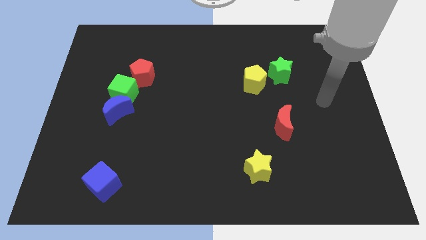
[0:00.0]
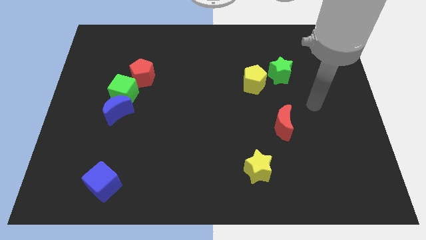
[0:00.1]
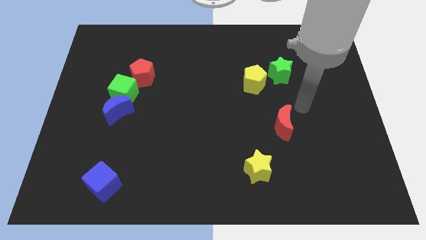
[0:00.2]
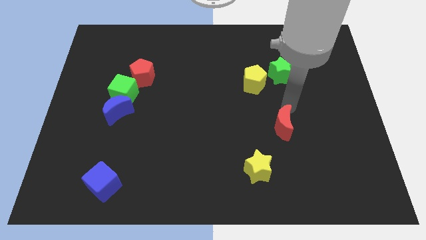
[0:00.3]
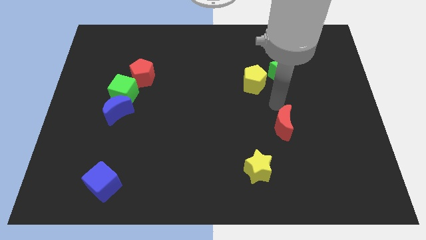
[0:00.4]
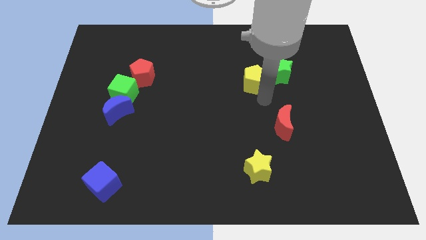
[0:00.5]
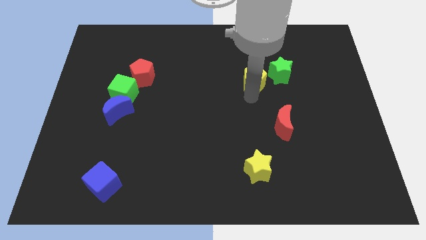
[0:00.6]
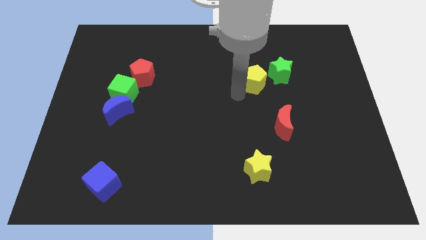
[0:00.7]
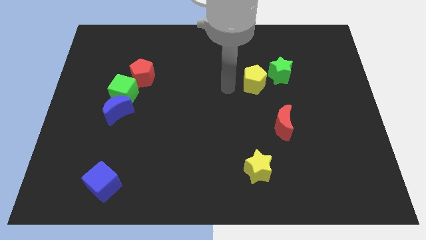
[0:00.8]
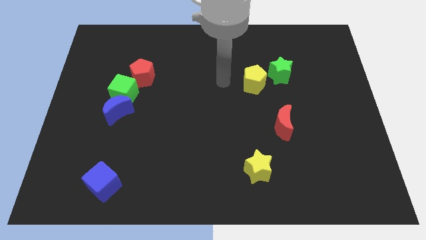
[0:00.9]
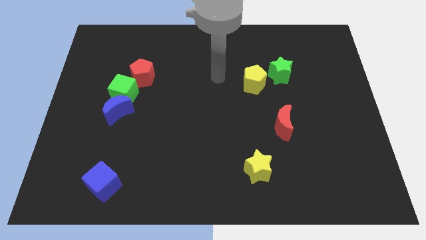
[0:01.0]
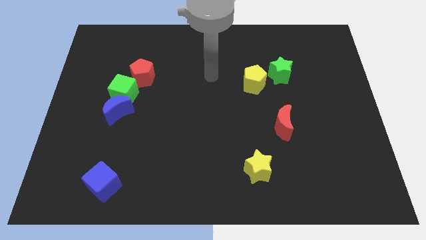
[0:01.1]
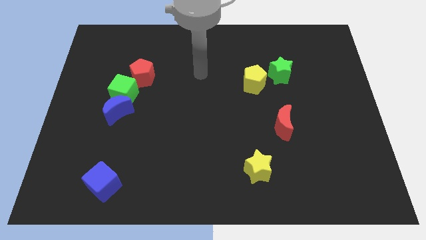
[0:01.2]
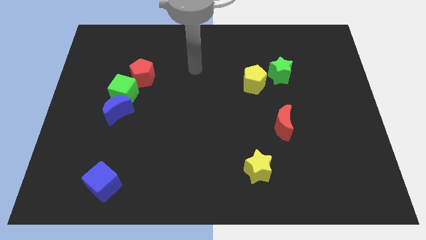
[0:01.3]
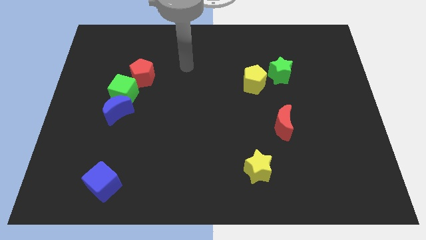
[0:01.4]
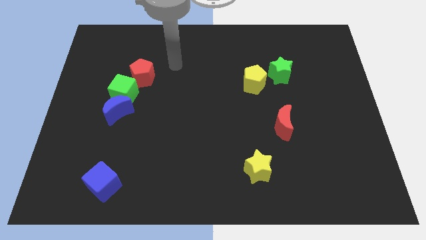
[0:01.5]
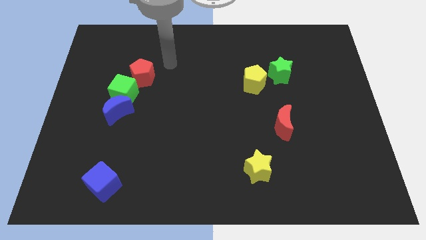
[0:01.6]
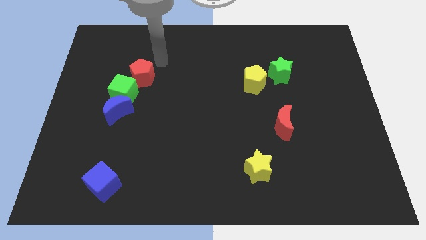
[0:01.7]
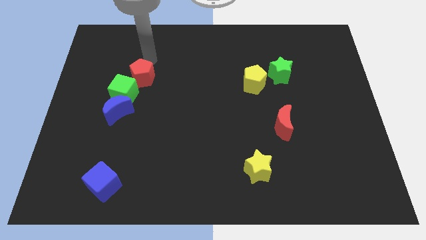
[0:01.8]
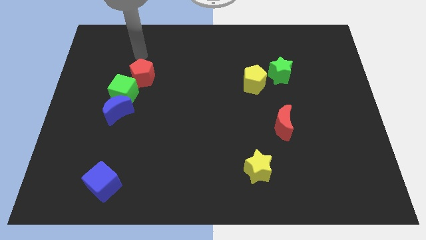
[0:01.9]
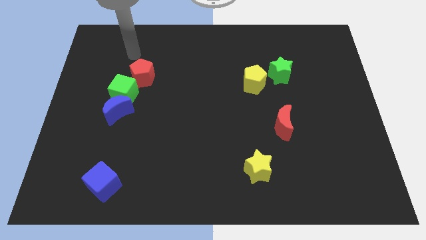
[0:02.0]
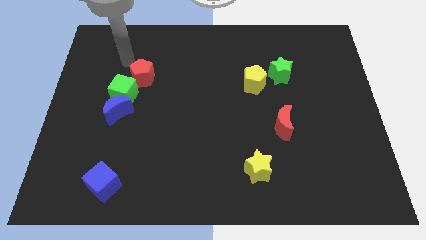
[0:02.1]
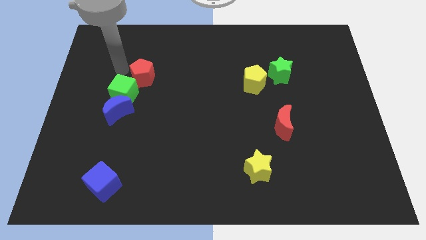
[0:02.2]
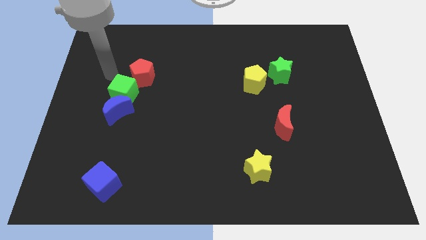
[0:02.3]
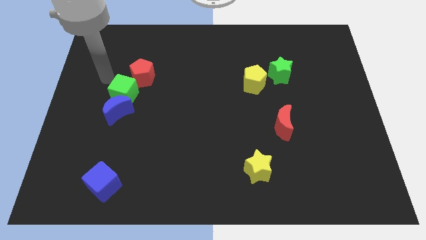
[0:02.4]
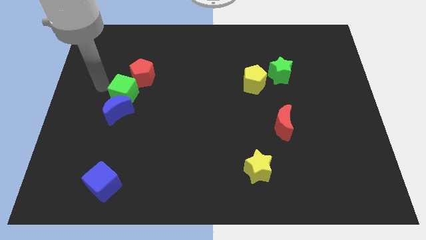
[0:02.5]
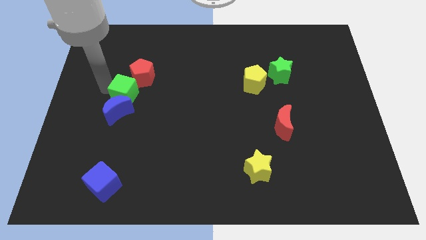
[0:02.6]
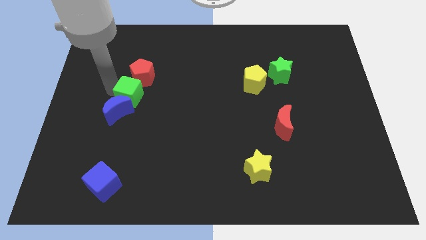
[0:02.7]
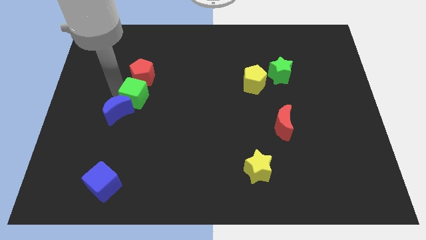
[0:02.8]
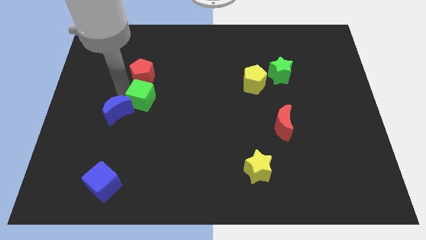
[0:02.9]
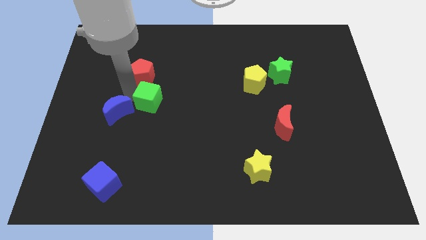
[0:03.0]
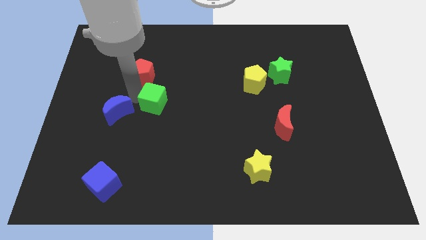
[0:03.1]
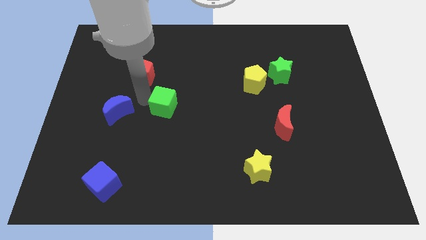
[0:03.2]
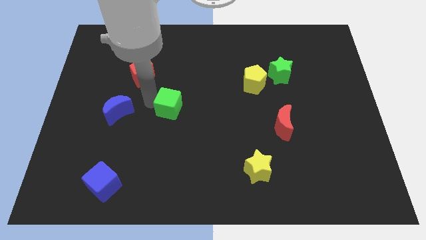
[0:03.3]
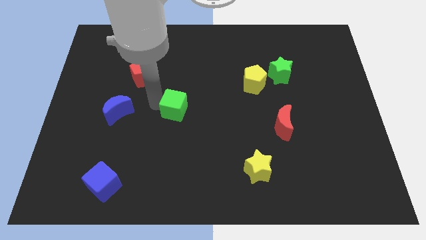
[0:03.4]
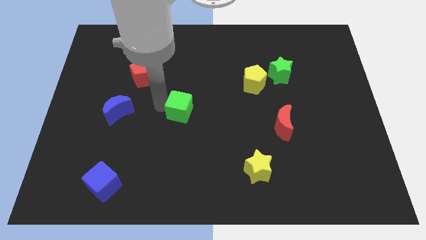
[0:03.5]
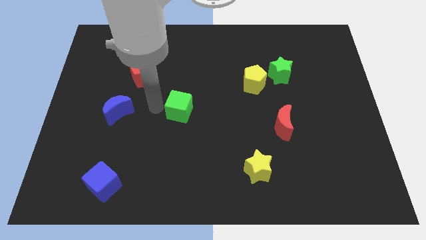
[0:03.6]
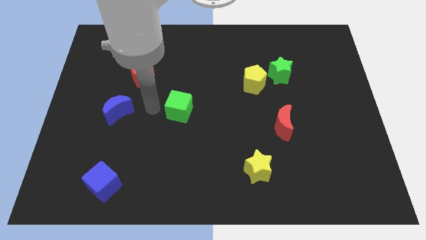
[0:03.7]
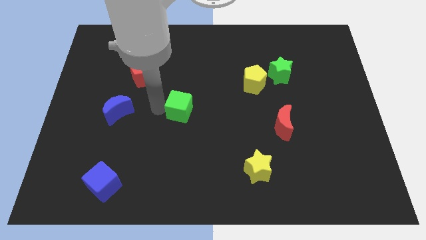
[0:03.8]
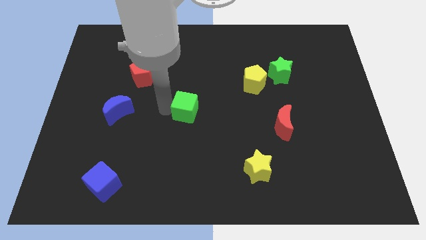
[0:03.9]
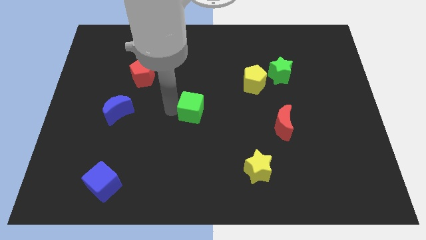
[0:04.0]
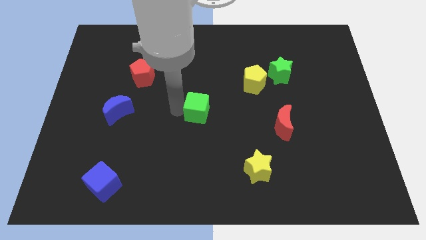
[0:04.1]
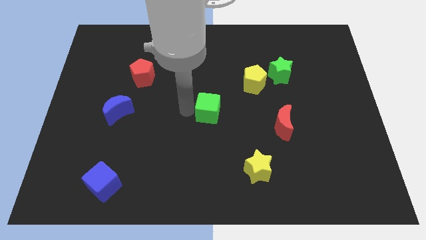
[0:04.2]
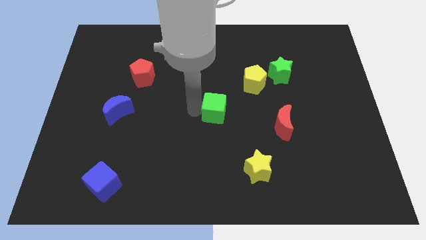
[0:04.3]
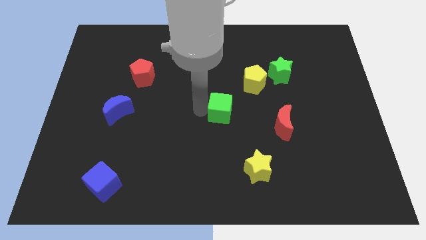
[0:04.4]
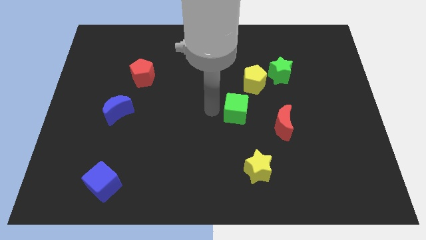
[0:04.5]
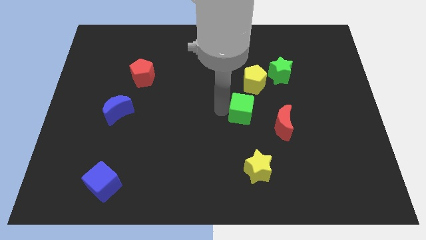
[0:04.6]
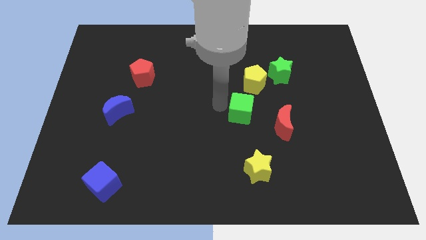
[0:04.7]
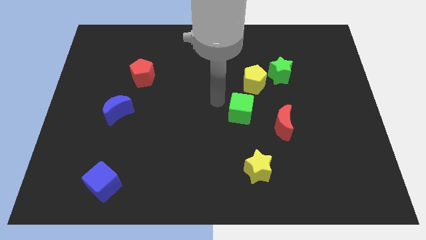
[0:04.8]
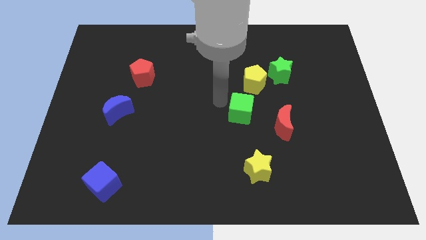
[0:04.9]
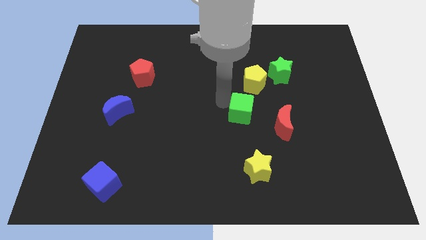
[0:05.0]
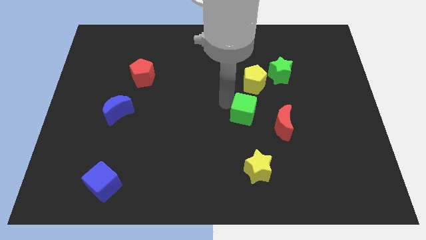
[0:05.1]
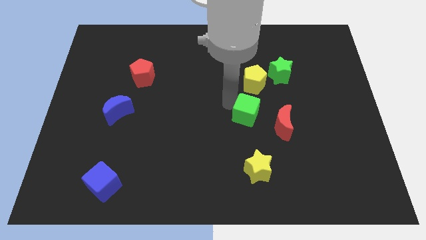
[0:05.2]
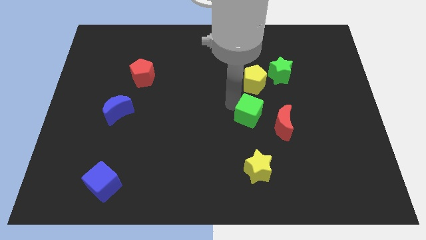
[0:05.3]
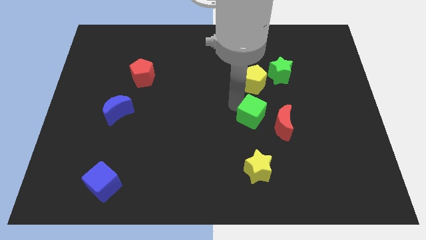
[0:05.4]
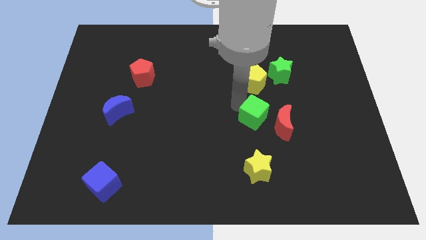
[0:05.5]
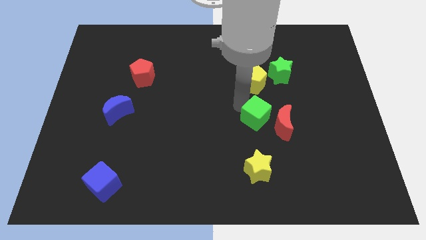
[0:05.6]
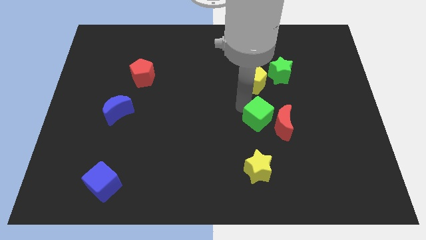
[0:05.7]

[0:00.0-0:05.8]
slide the green cube close to the red moon

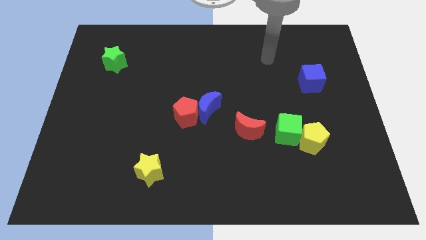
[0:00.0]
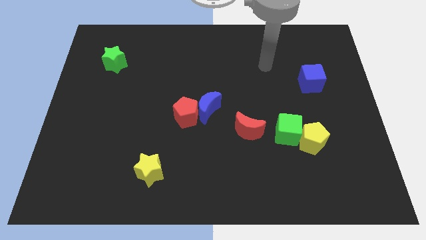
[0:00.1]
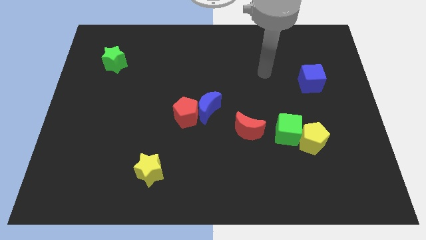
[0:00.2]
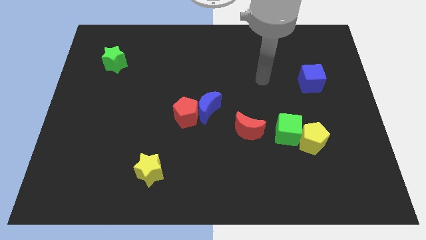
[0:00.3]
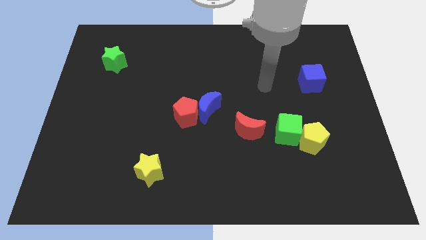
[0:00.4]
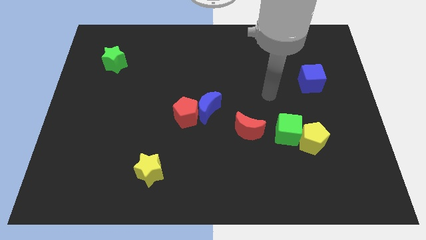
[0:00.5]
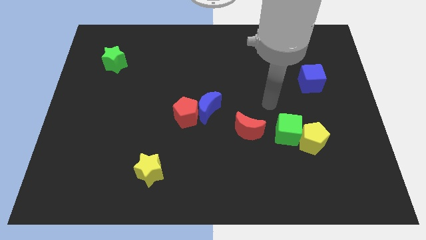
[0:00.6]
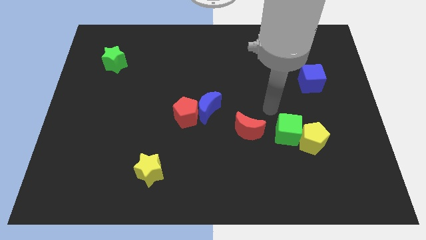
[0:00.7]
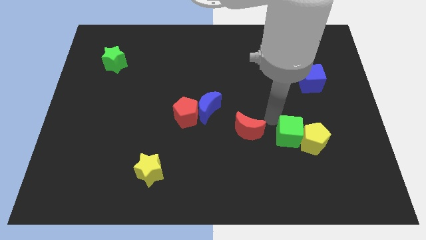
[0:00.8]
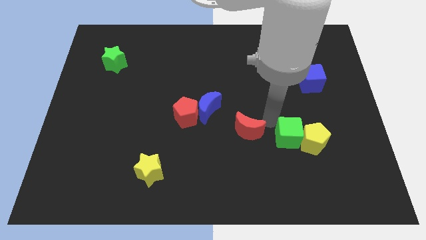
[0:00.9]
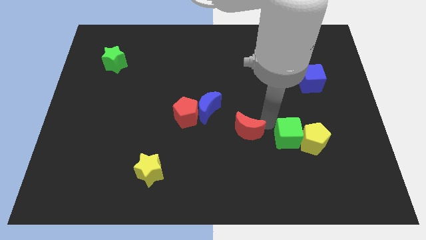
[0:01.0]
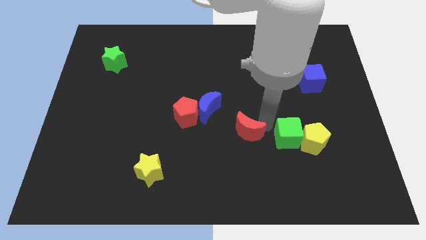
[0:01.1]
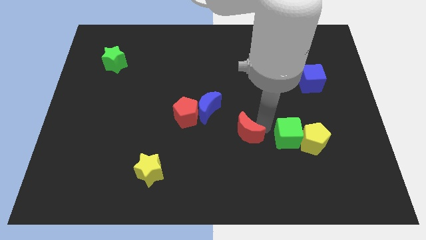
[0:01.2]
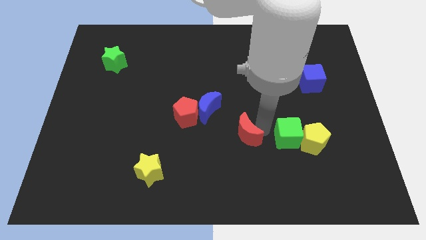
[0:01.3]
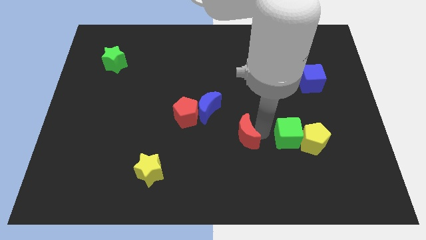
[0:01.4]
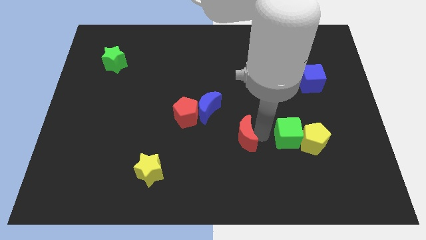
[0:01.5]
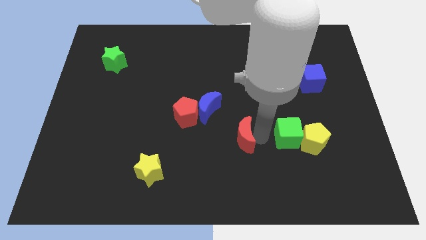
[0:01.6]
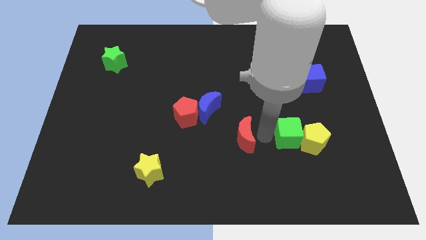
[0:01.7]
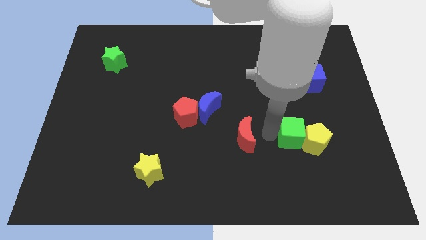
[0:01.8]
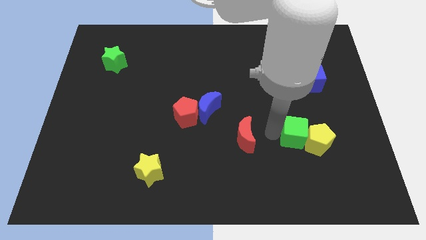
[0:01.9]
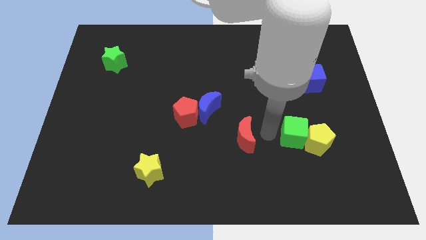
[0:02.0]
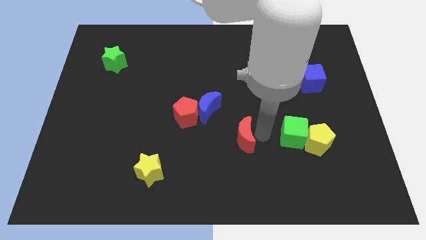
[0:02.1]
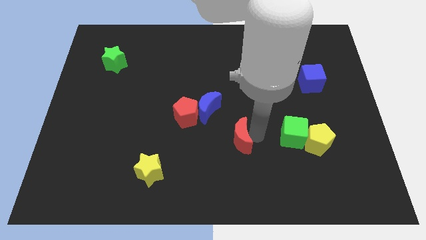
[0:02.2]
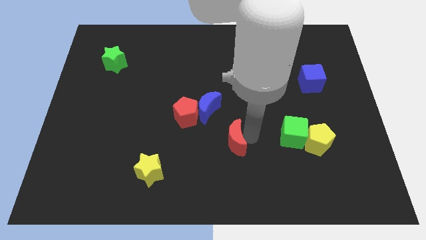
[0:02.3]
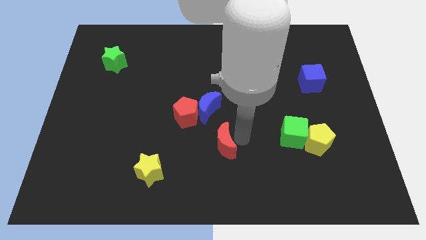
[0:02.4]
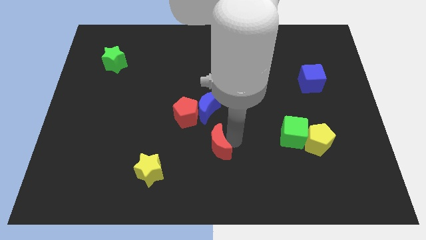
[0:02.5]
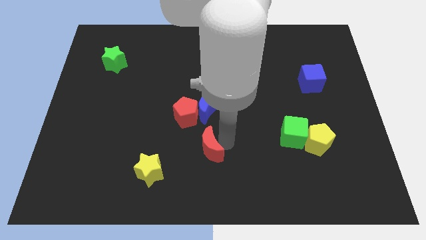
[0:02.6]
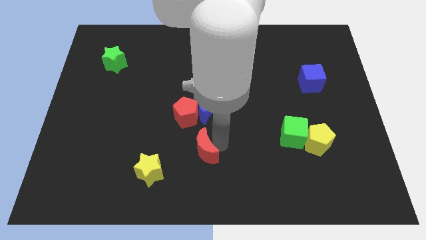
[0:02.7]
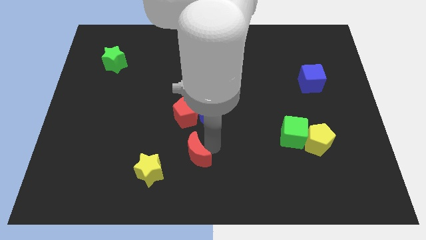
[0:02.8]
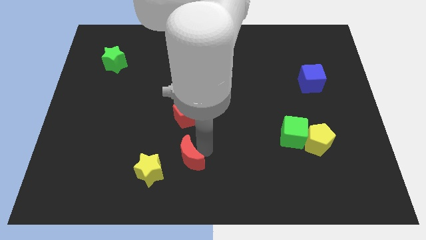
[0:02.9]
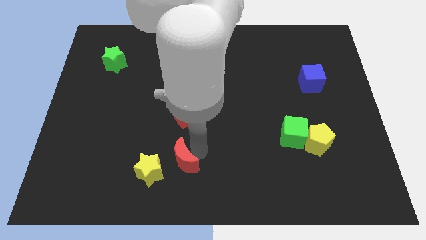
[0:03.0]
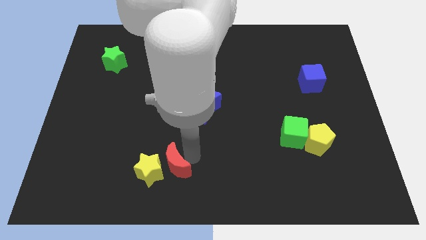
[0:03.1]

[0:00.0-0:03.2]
slide the red moon next to the yellow star
